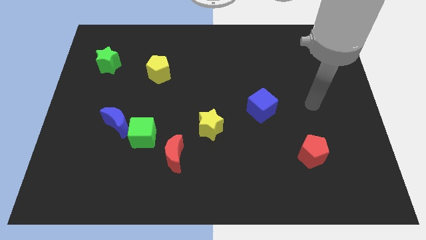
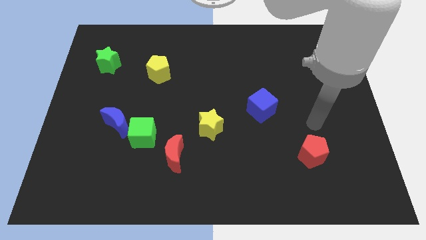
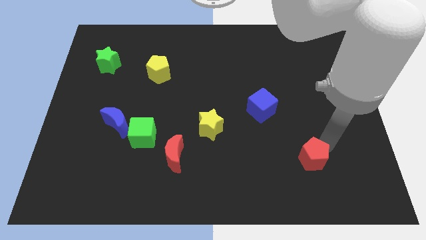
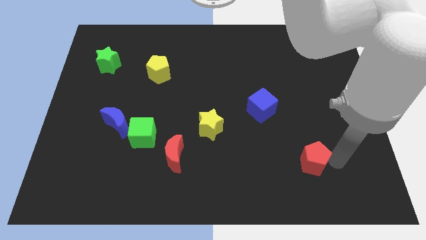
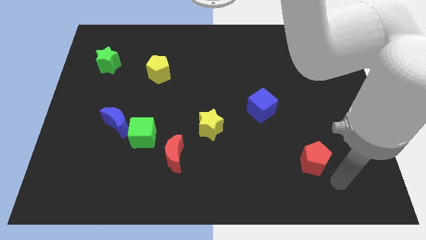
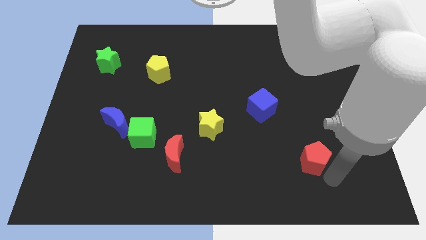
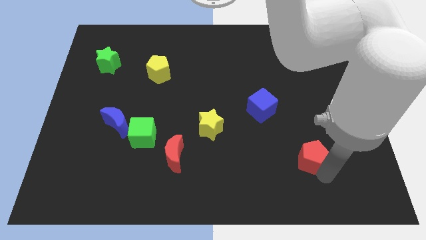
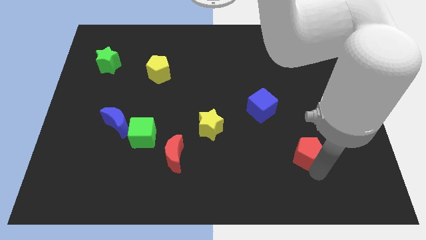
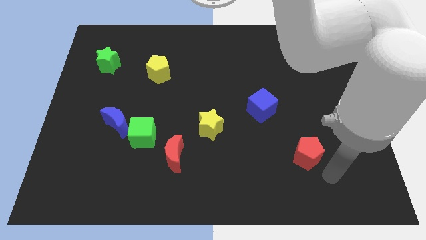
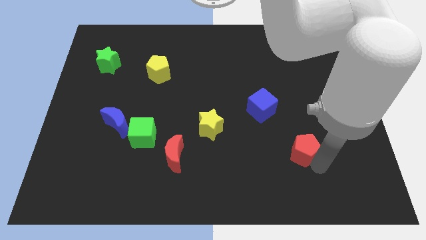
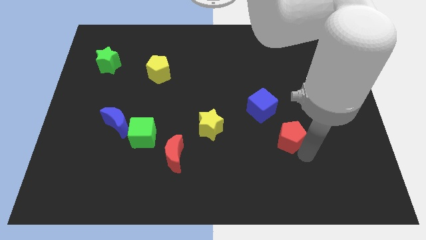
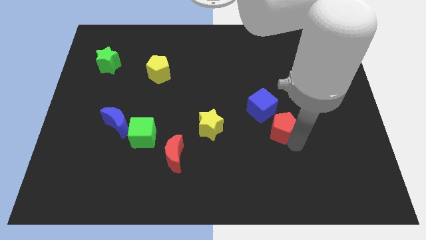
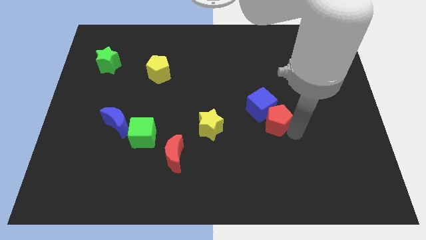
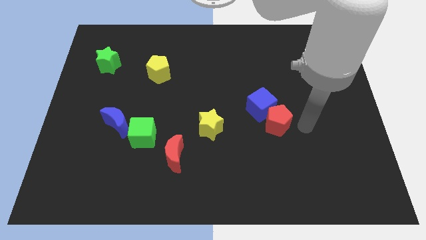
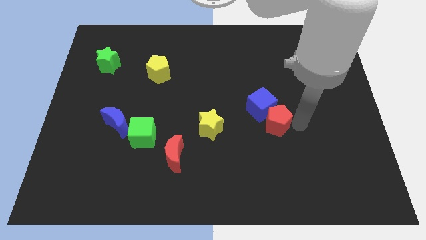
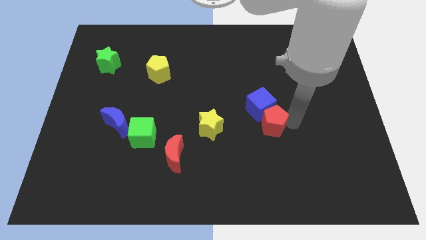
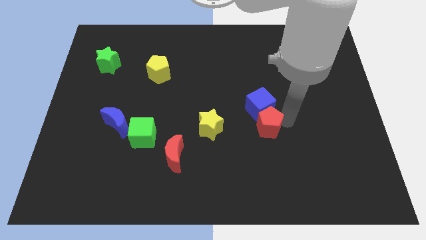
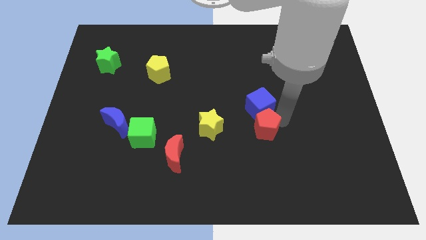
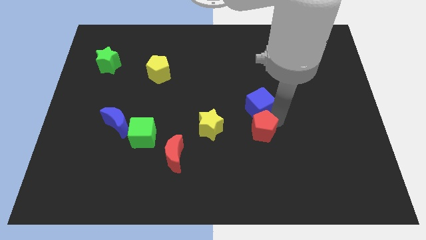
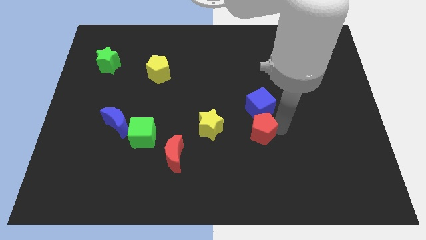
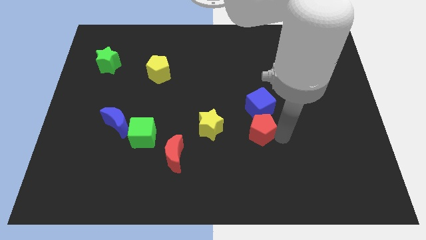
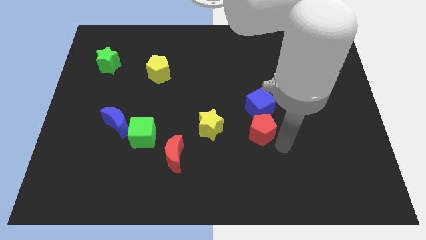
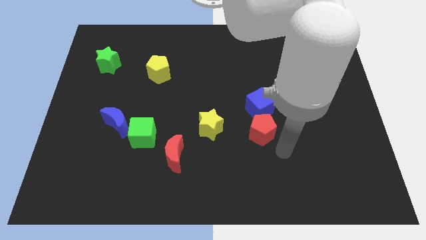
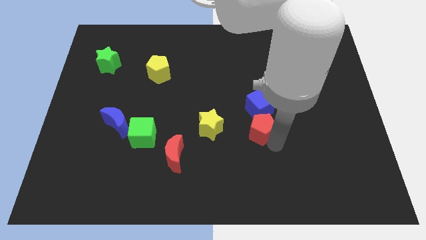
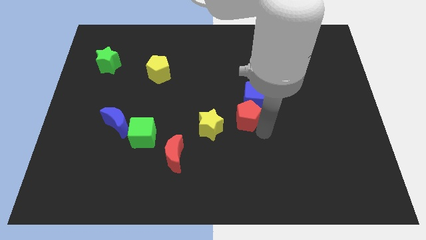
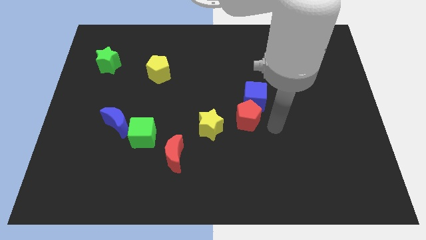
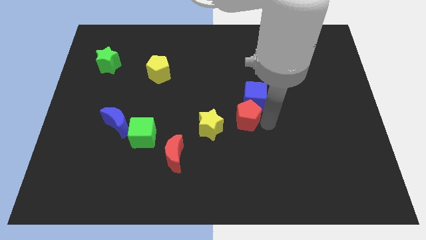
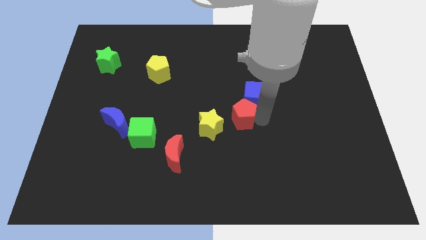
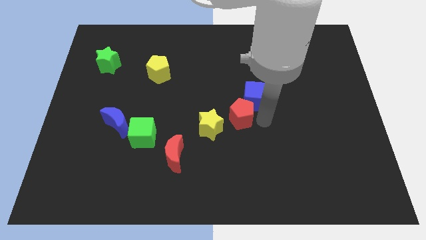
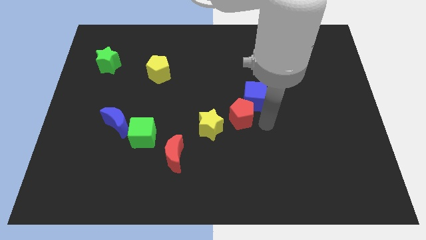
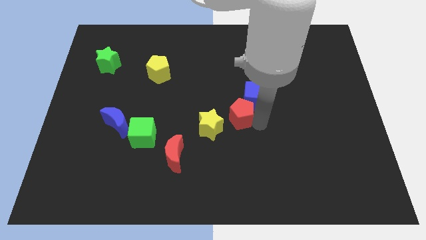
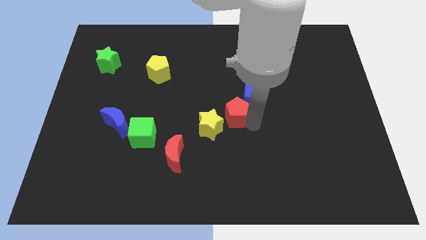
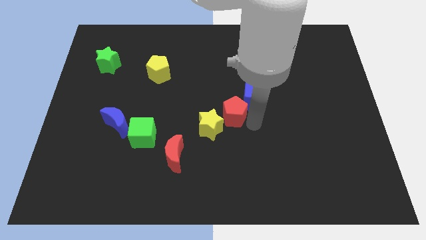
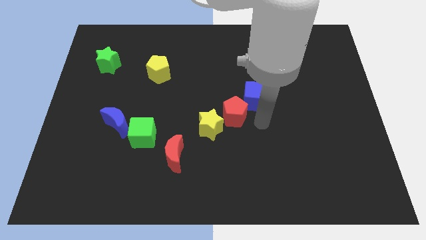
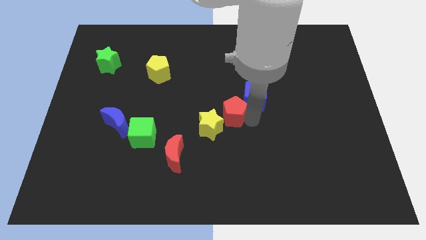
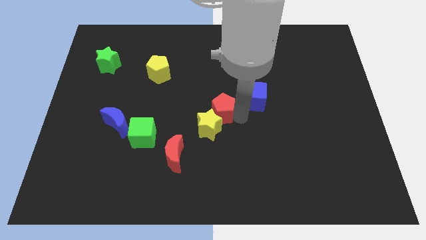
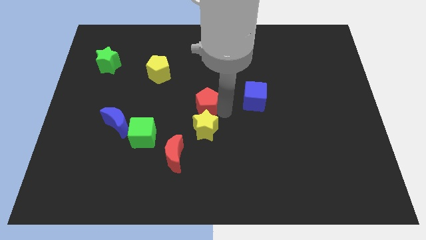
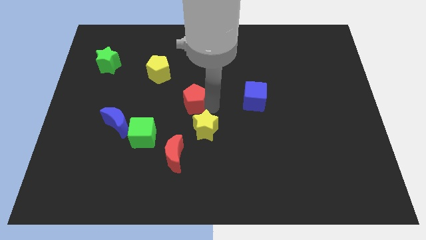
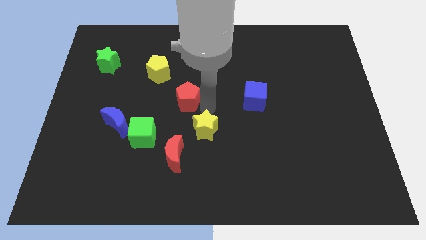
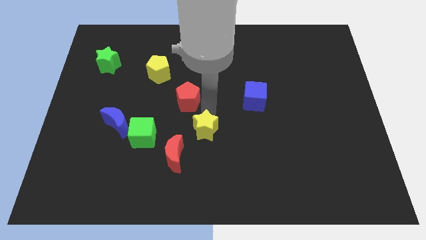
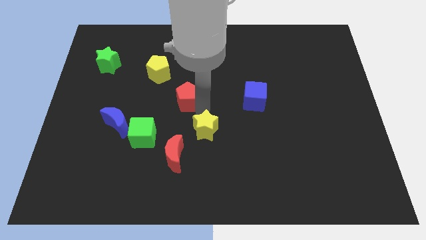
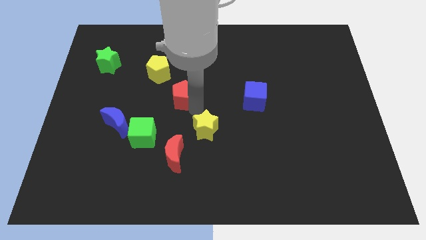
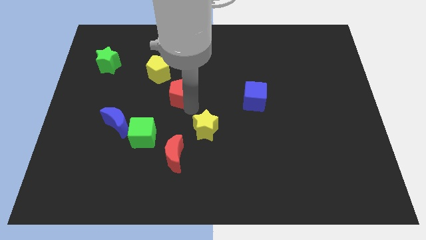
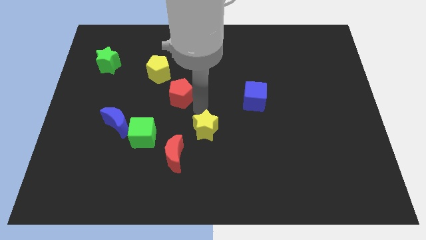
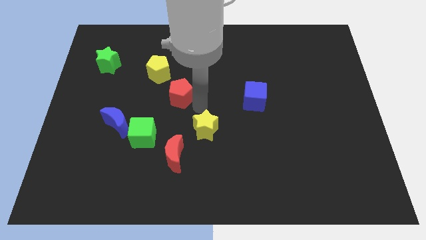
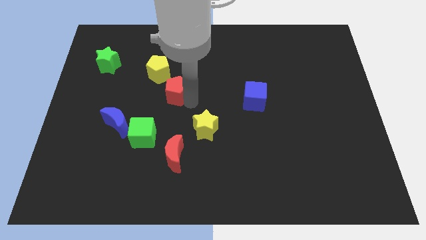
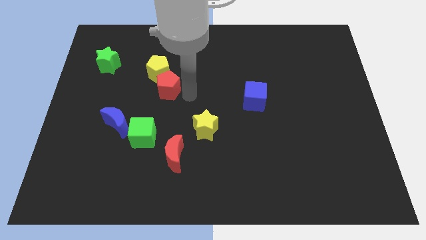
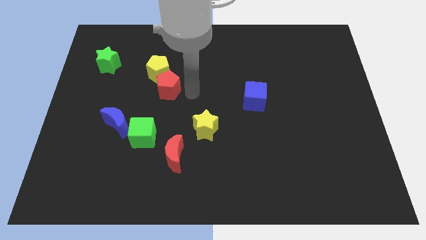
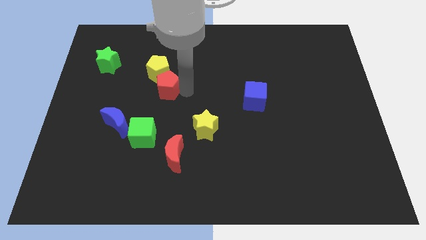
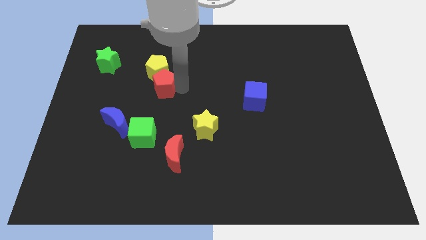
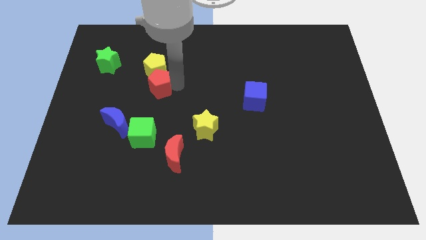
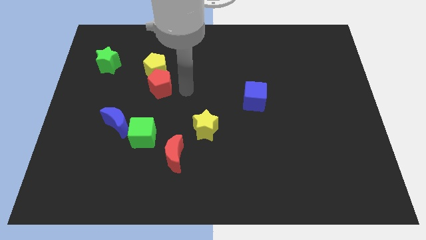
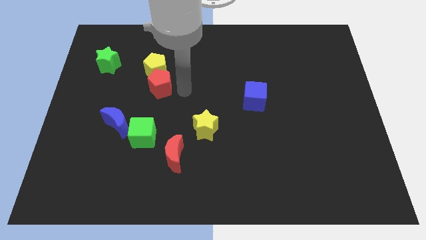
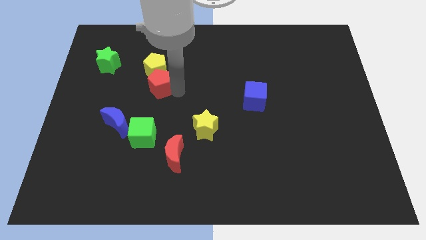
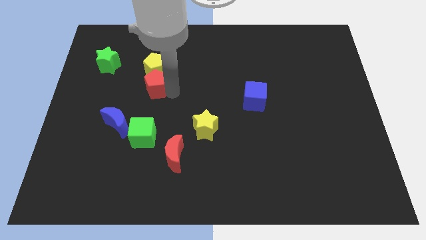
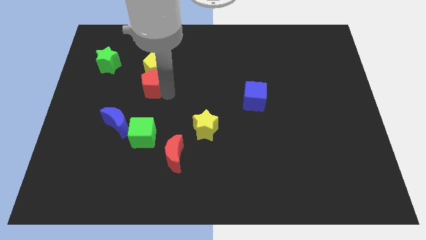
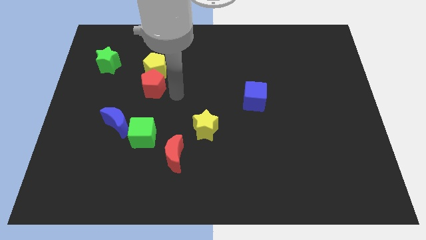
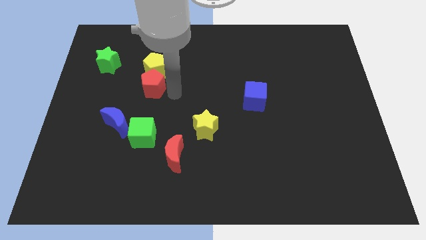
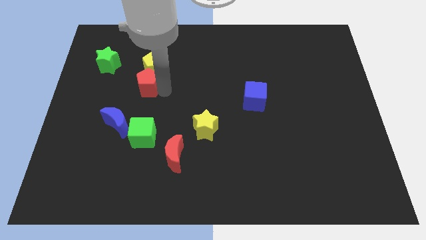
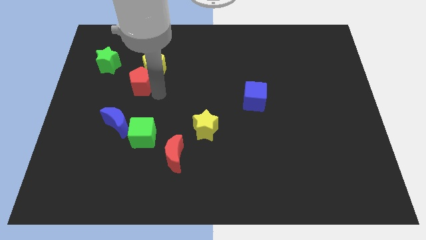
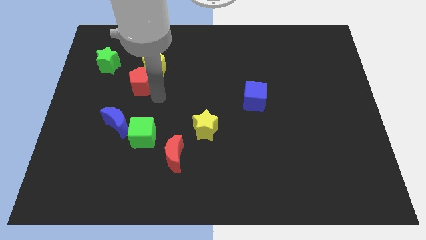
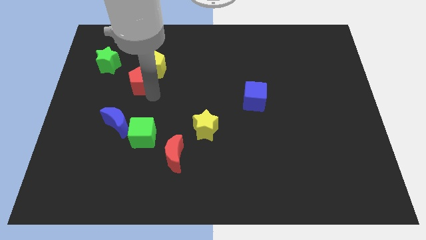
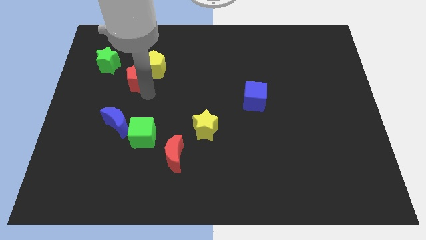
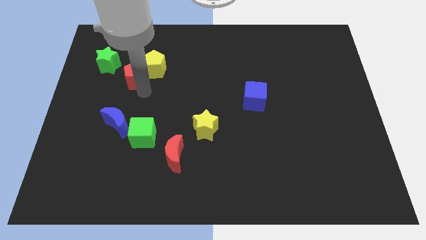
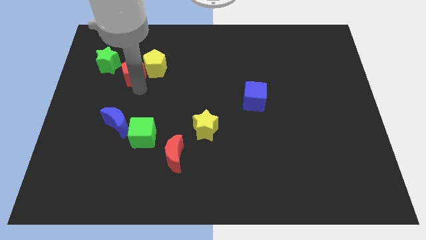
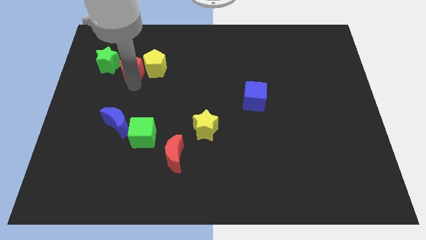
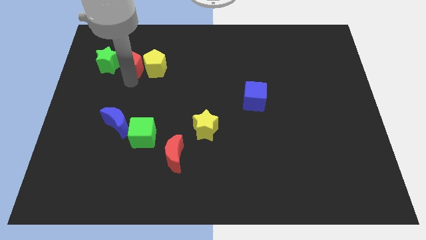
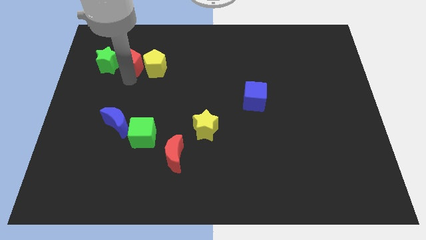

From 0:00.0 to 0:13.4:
push the red pentagon to the green star
